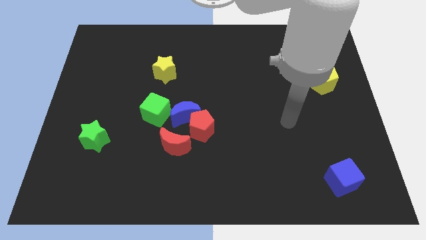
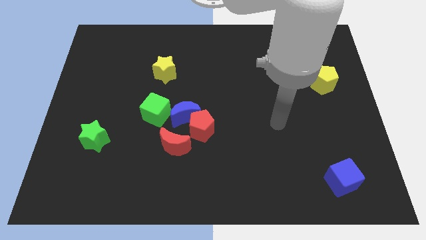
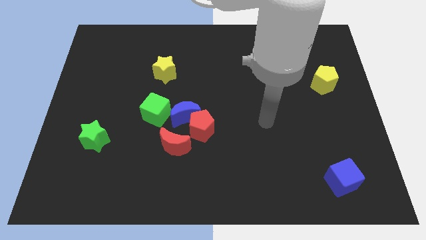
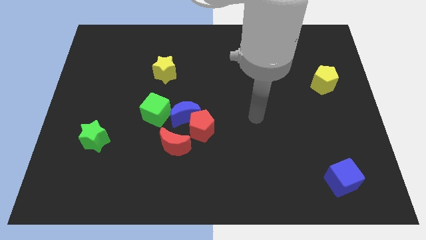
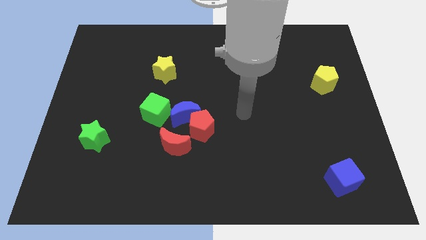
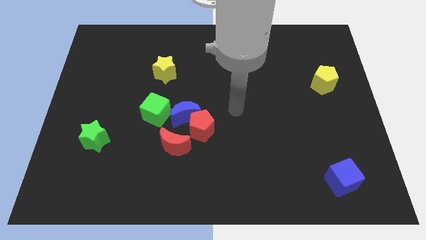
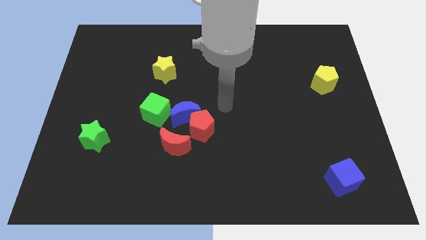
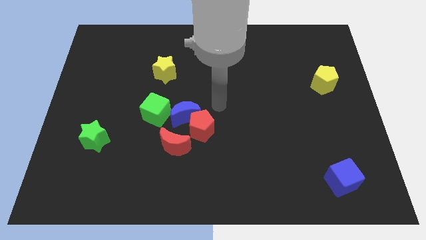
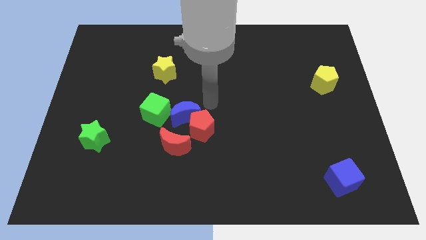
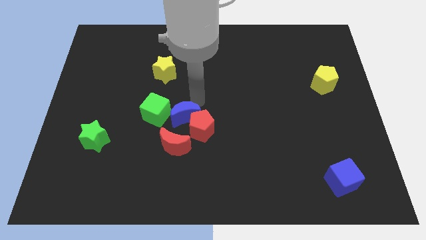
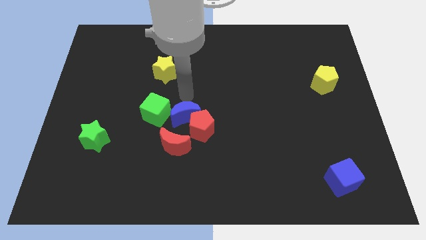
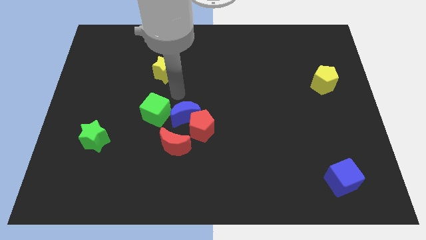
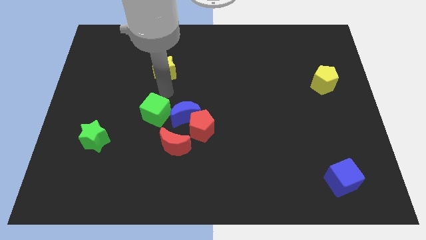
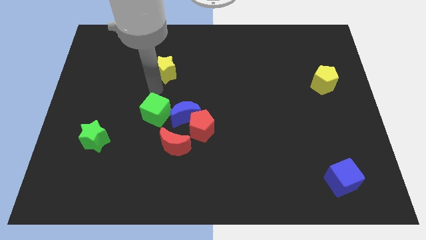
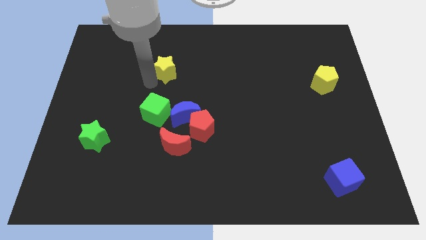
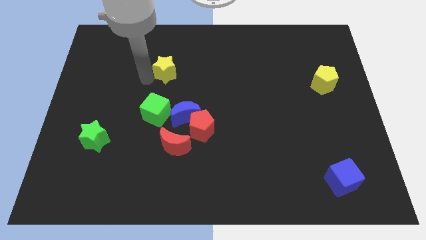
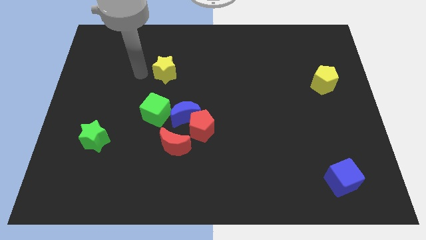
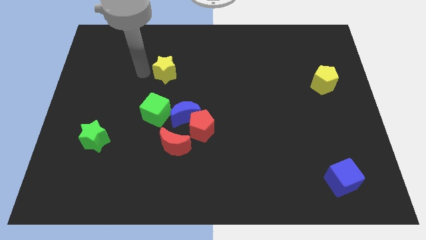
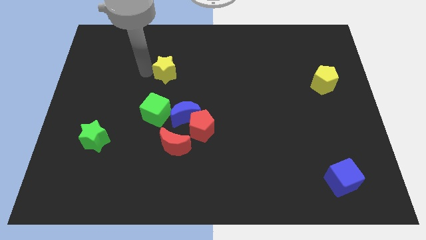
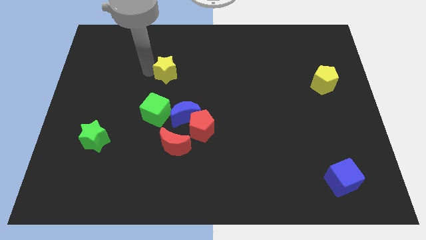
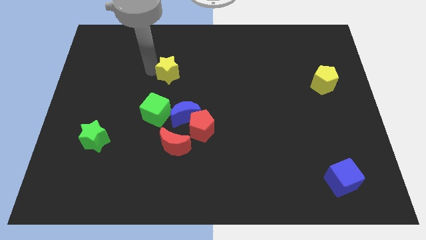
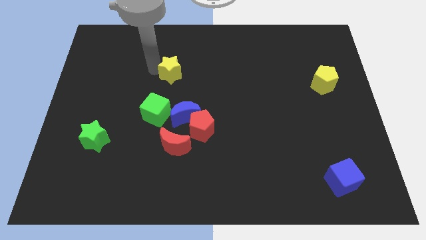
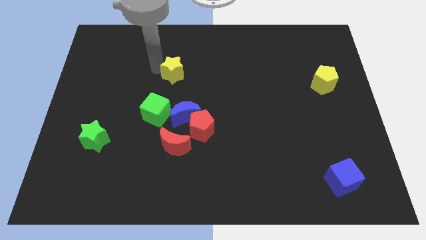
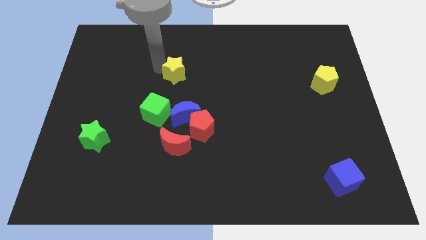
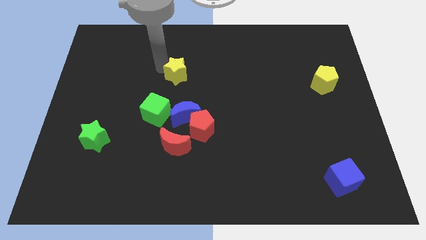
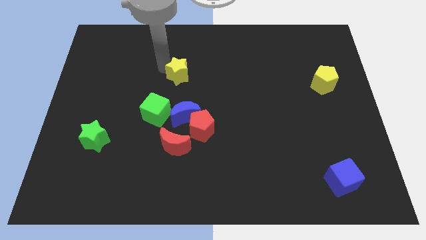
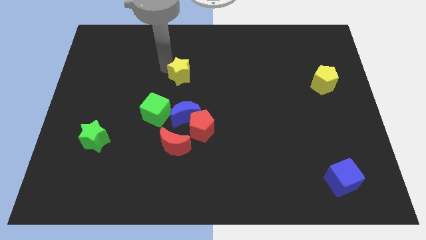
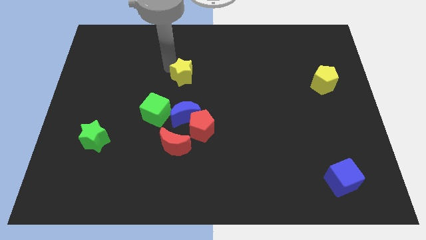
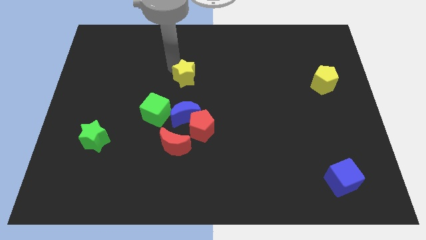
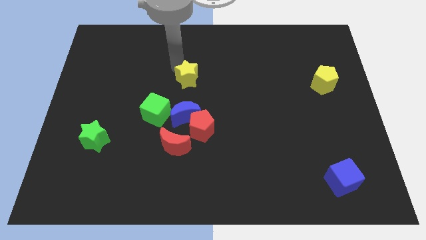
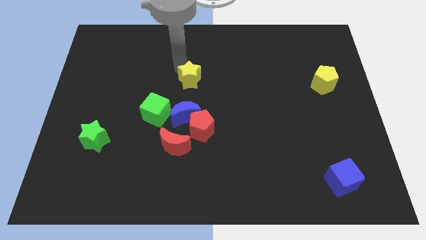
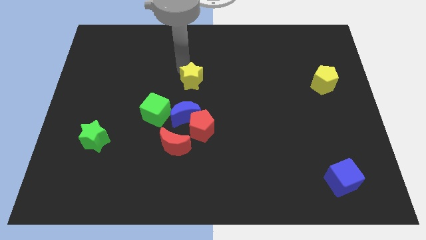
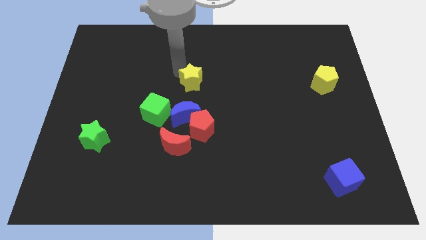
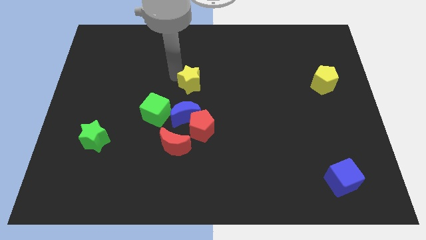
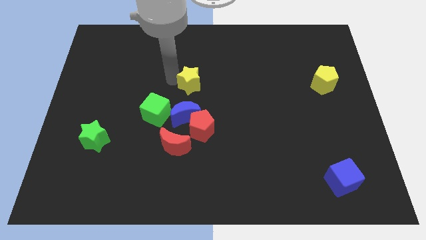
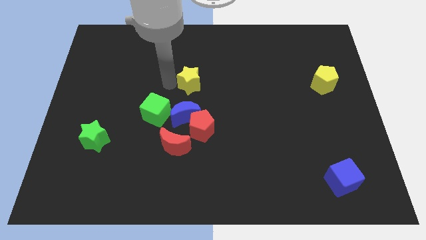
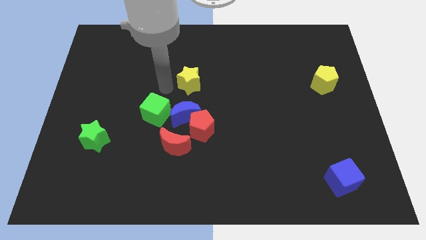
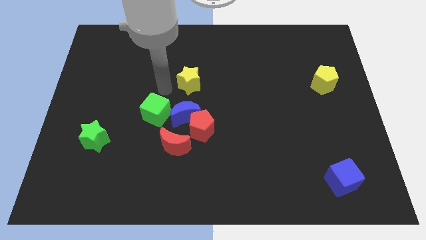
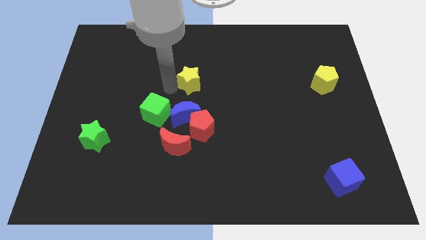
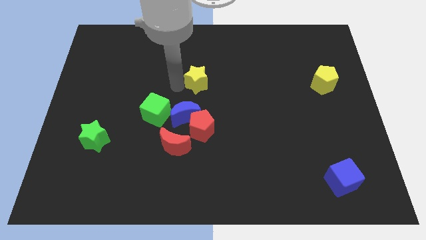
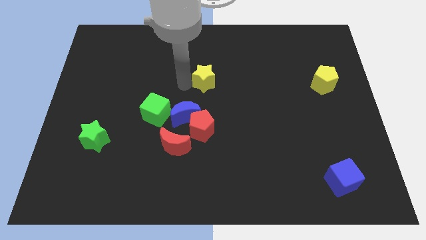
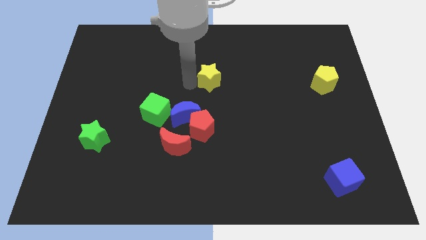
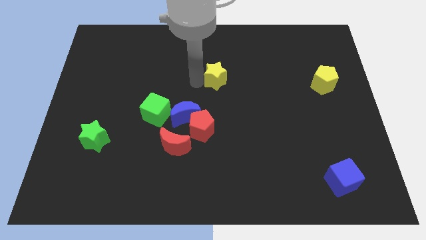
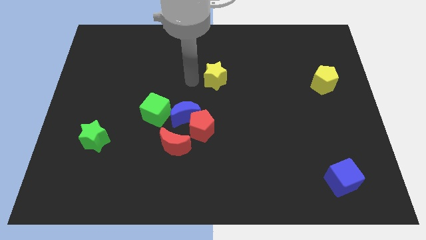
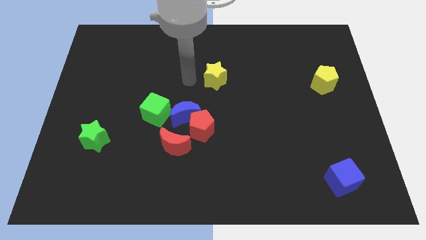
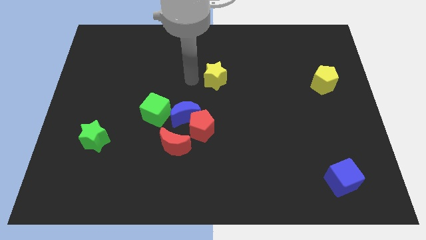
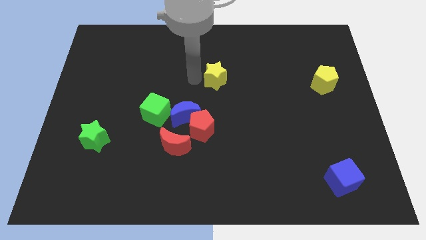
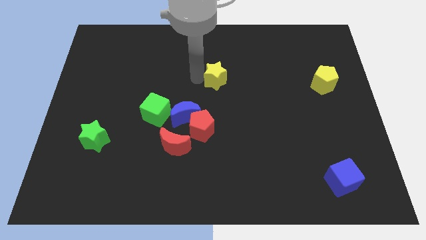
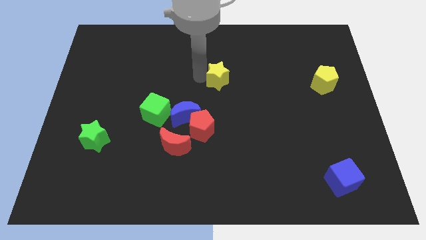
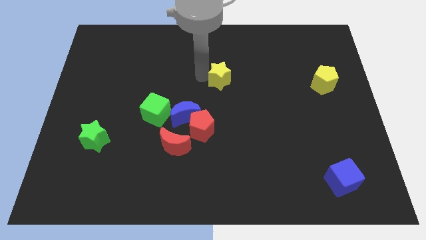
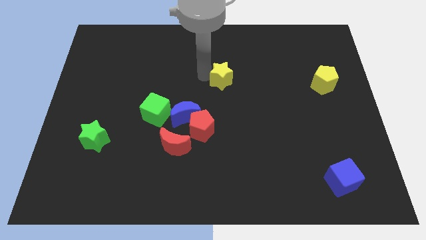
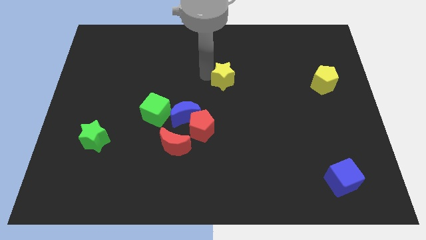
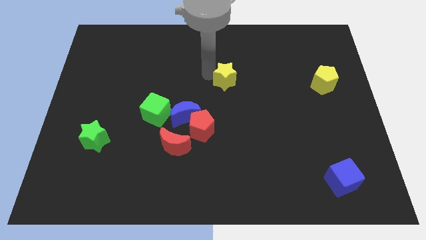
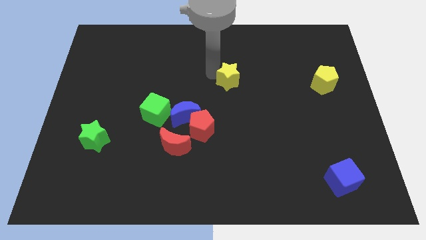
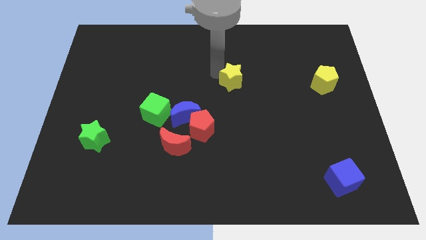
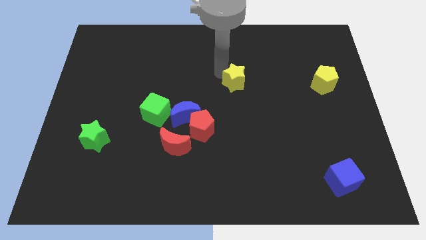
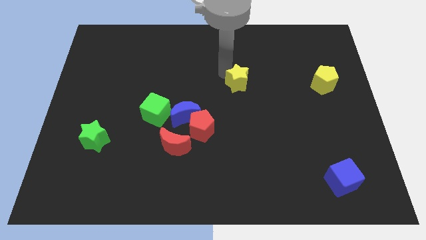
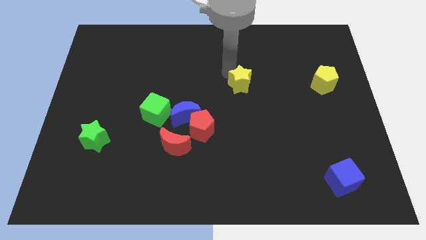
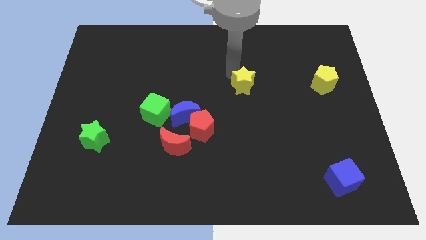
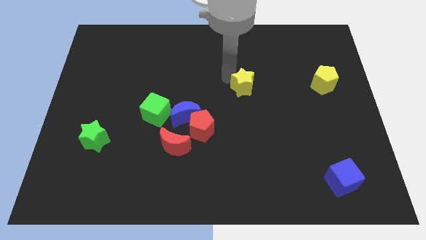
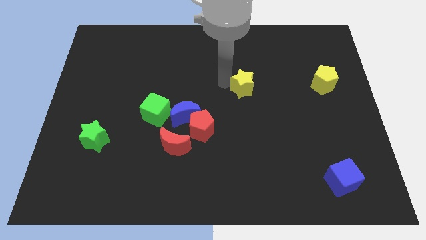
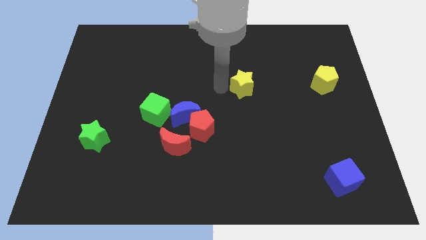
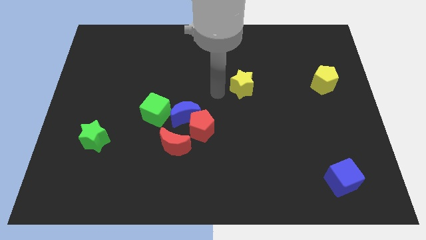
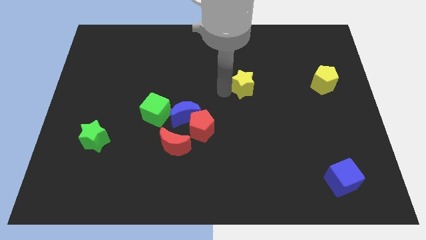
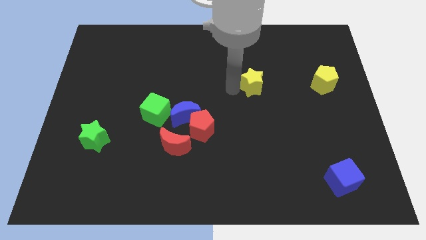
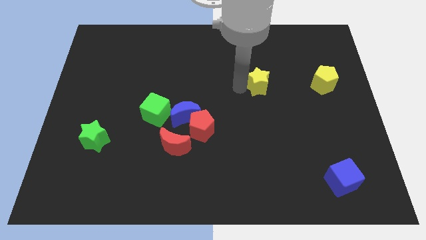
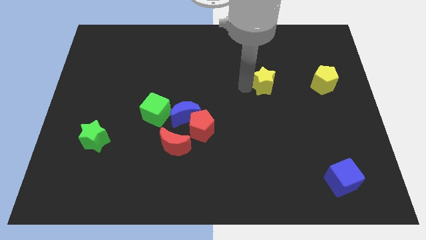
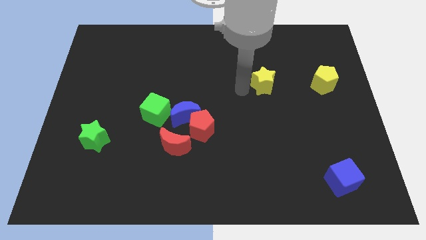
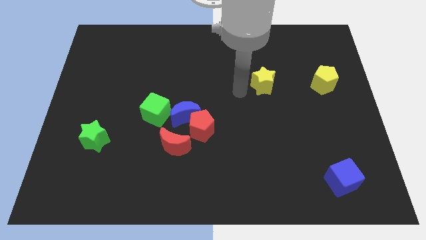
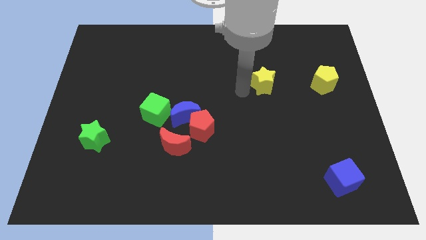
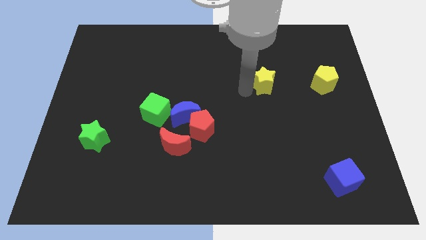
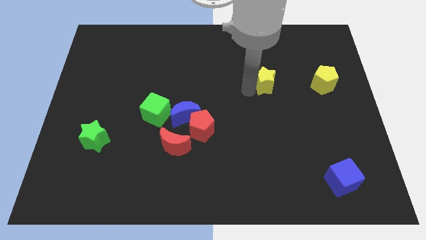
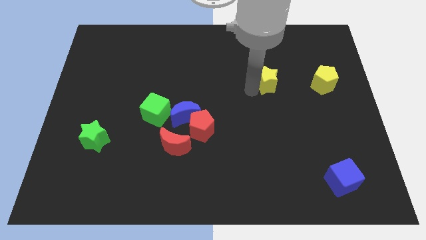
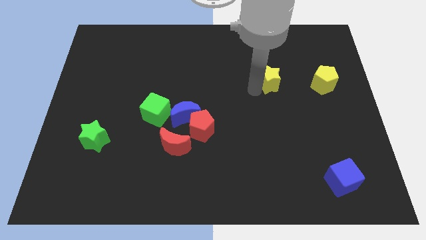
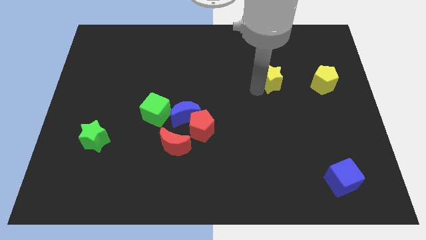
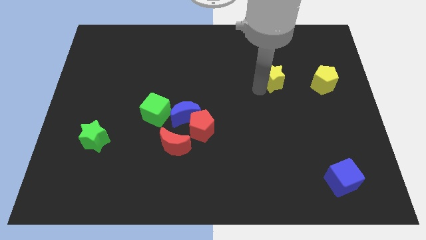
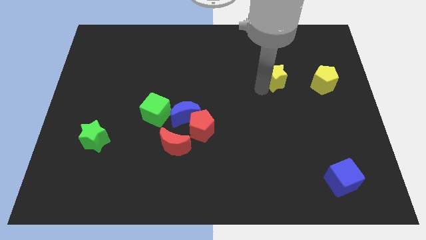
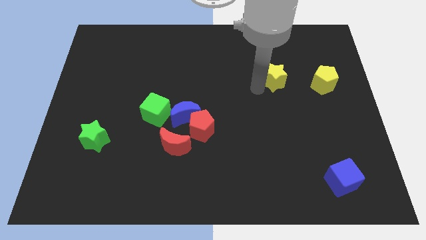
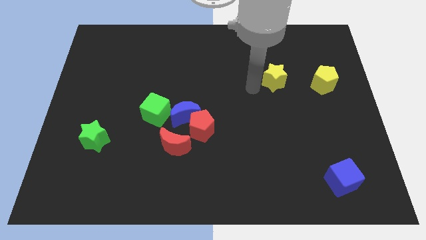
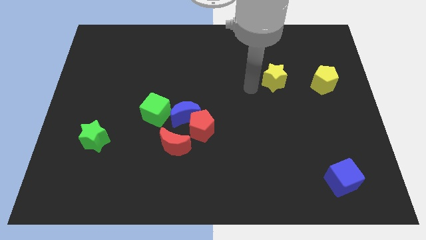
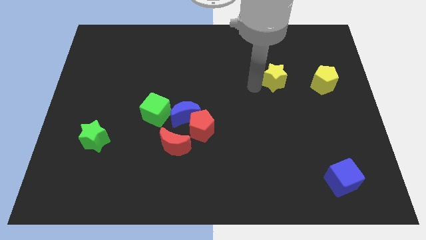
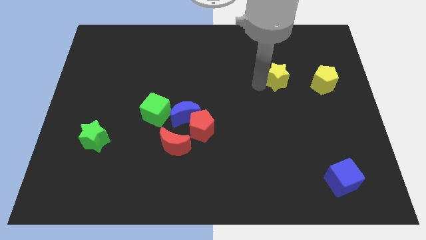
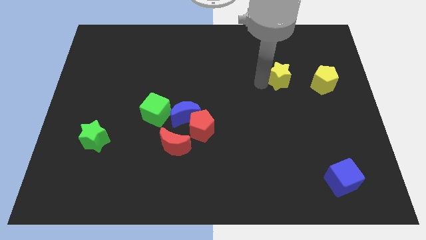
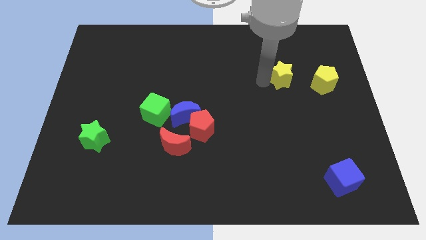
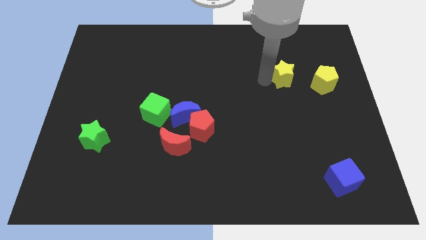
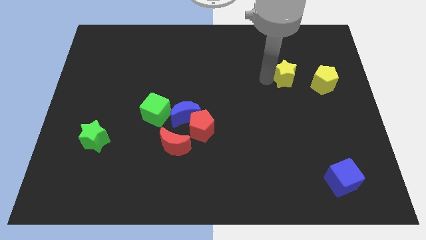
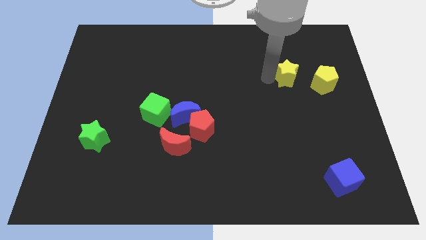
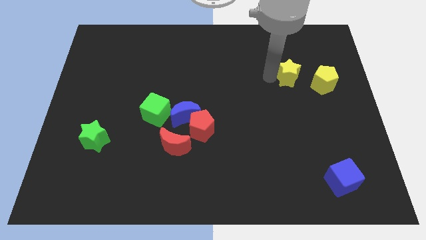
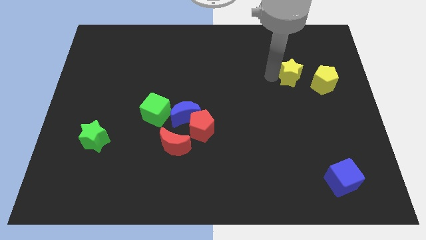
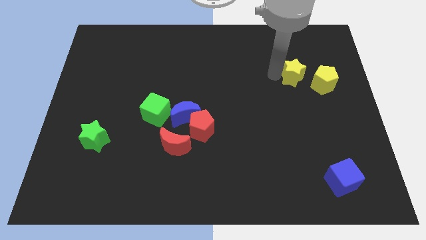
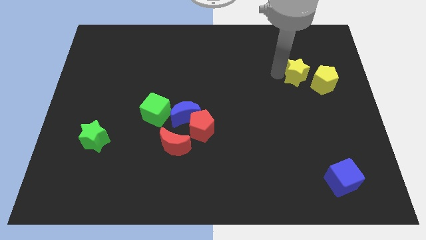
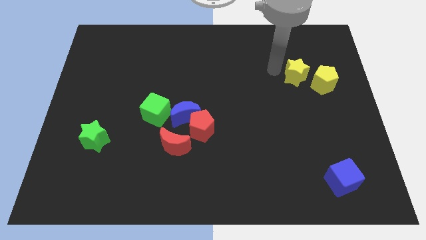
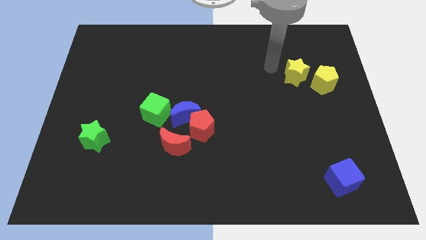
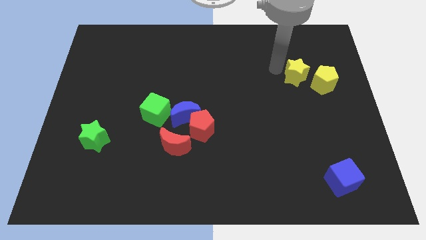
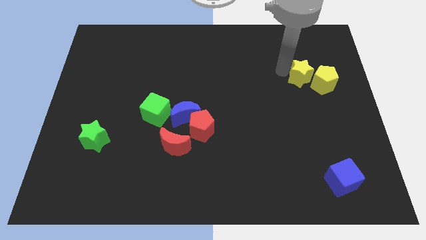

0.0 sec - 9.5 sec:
push the yellow star next to the yellow pentagon
